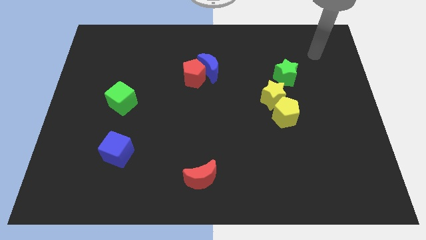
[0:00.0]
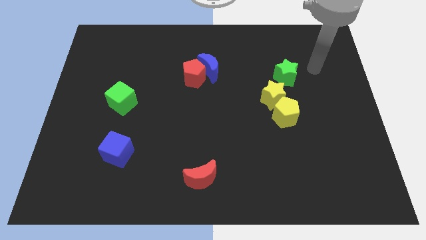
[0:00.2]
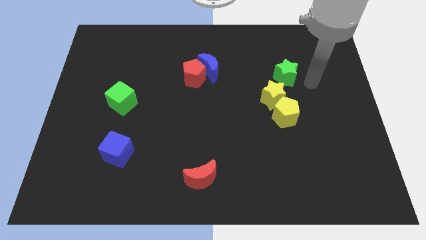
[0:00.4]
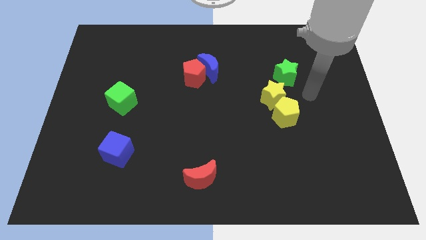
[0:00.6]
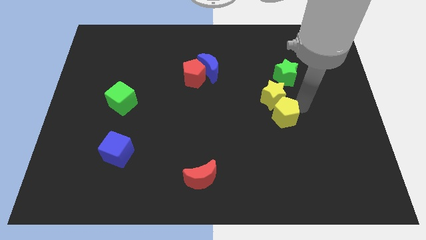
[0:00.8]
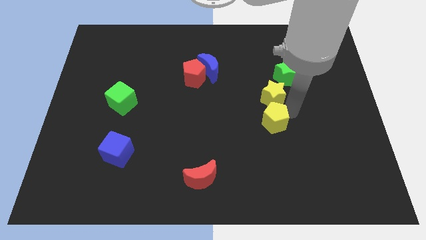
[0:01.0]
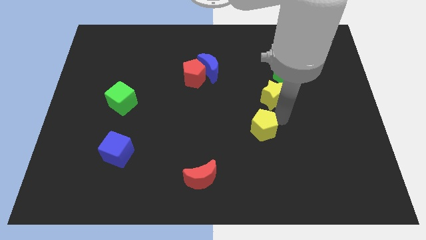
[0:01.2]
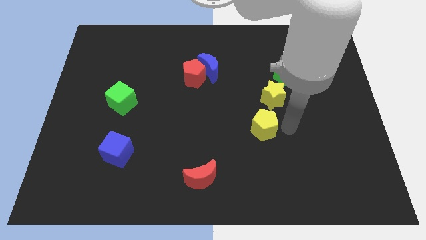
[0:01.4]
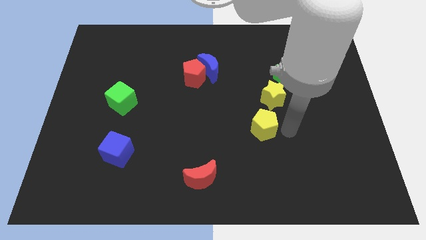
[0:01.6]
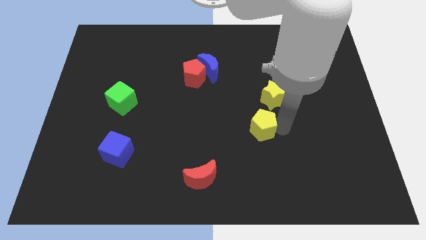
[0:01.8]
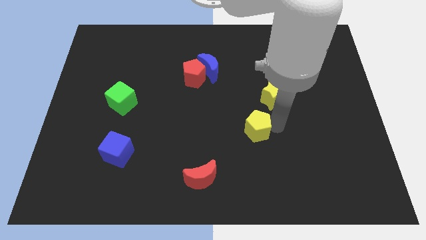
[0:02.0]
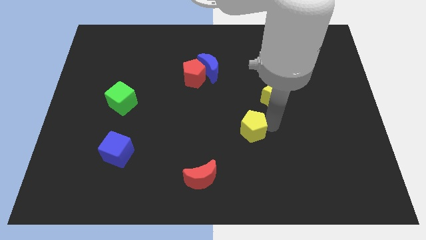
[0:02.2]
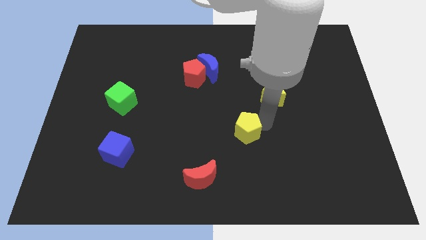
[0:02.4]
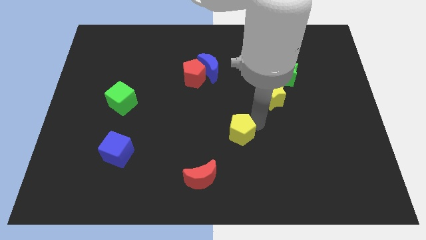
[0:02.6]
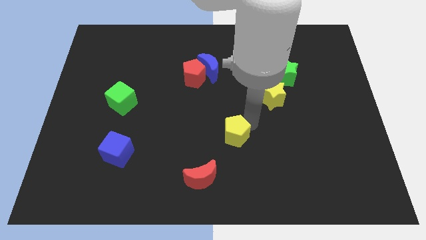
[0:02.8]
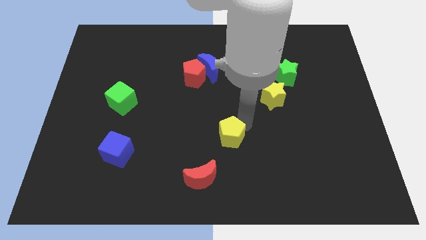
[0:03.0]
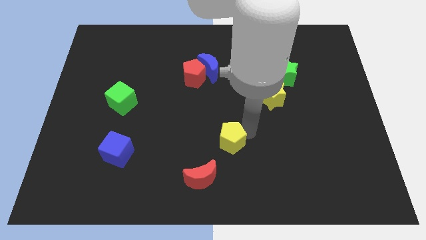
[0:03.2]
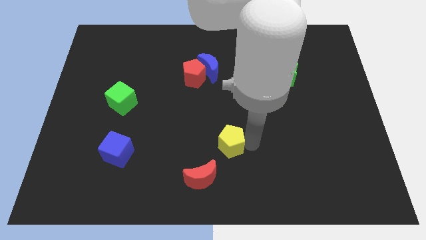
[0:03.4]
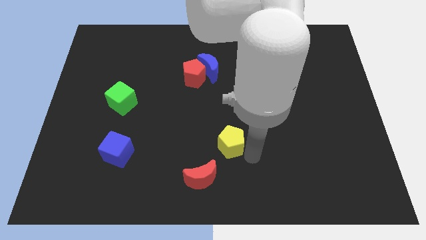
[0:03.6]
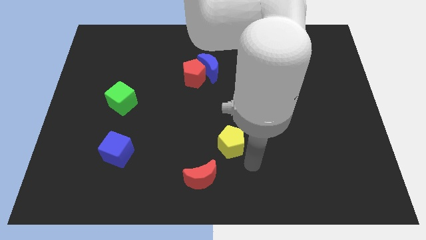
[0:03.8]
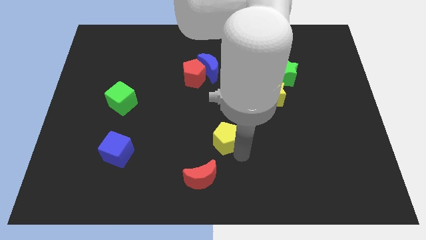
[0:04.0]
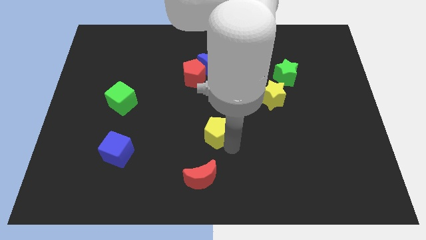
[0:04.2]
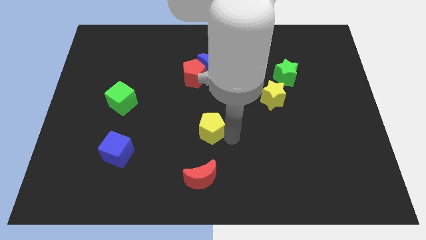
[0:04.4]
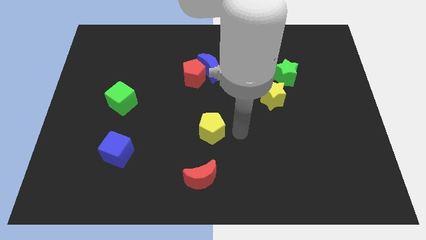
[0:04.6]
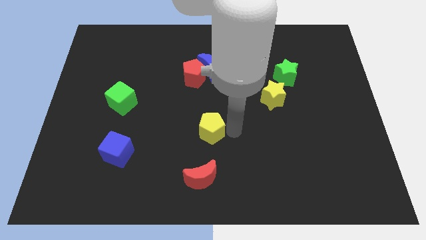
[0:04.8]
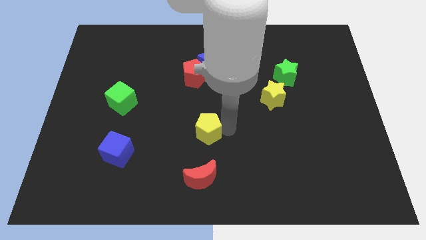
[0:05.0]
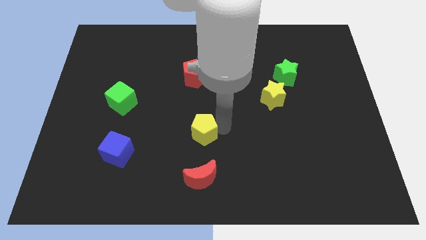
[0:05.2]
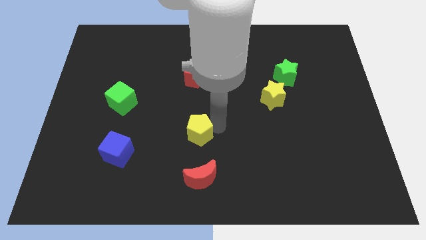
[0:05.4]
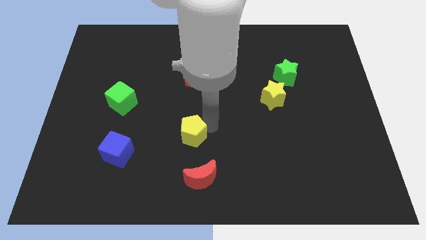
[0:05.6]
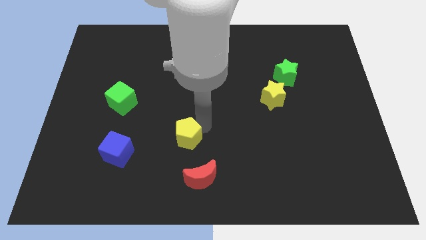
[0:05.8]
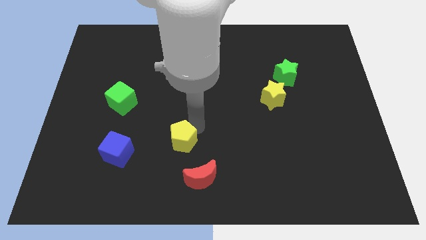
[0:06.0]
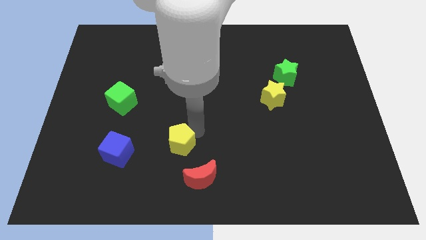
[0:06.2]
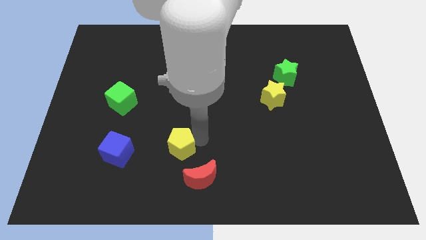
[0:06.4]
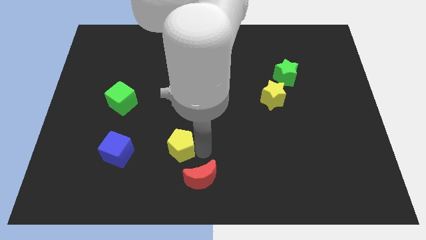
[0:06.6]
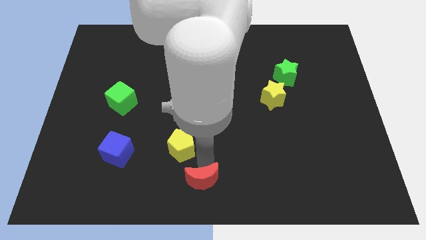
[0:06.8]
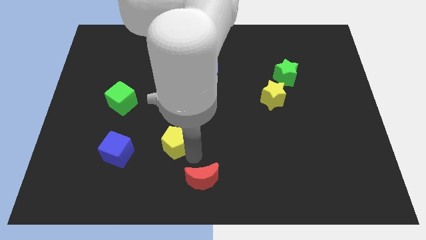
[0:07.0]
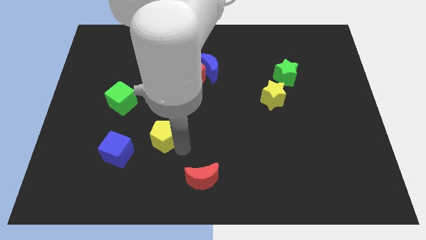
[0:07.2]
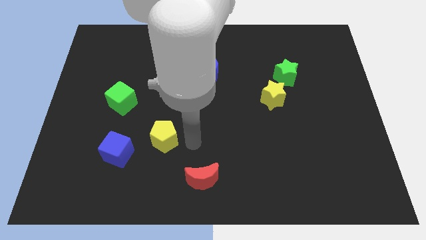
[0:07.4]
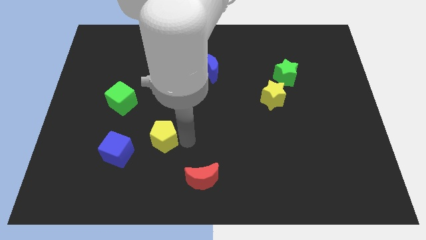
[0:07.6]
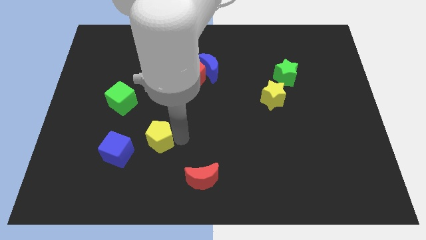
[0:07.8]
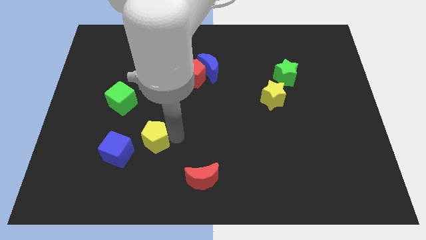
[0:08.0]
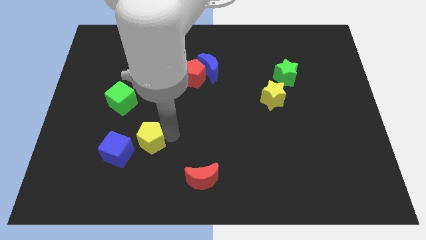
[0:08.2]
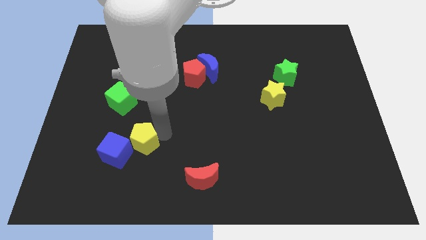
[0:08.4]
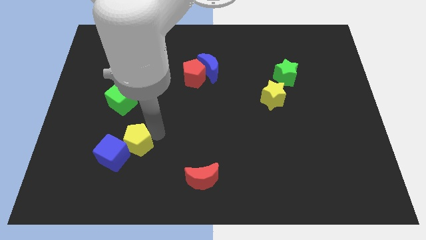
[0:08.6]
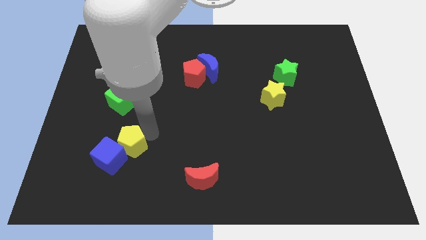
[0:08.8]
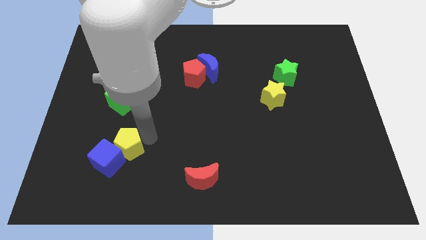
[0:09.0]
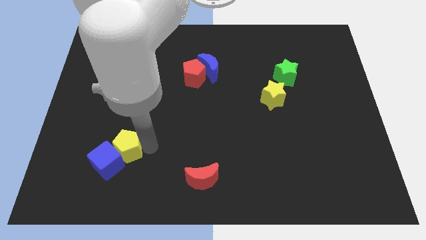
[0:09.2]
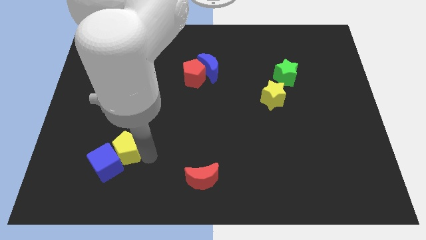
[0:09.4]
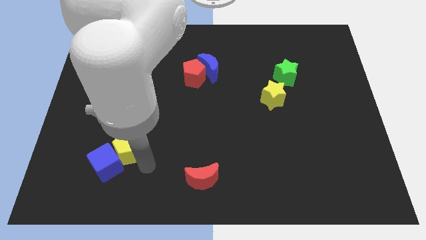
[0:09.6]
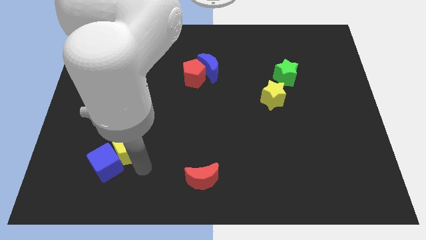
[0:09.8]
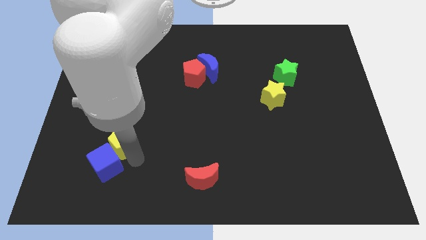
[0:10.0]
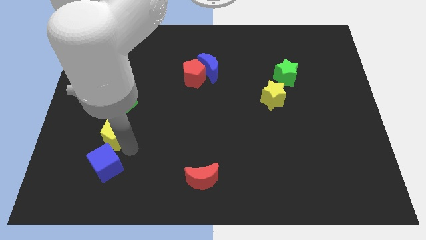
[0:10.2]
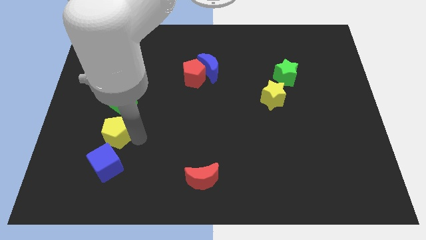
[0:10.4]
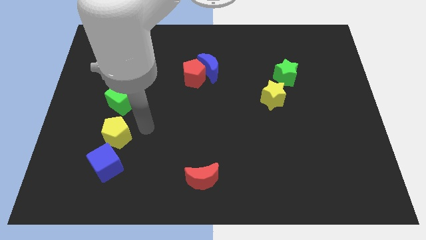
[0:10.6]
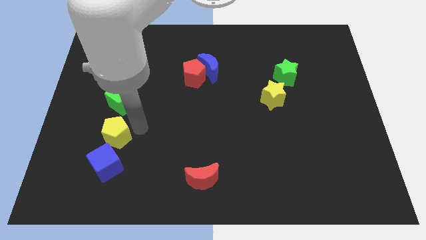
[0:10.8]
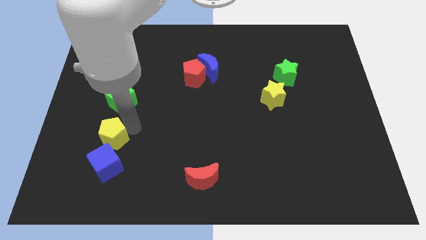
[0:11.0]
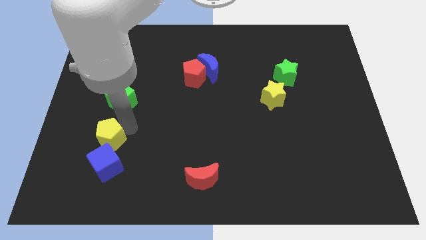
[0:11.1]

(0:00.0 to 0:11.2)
move the yellow pentagon to the top left side of the blue cube

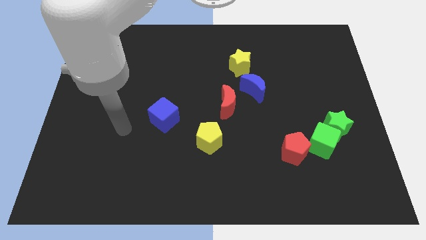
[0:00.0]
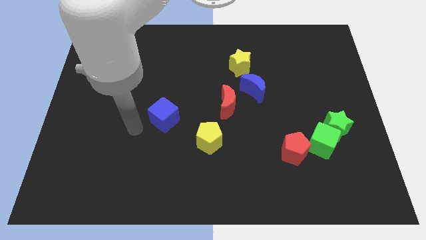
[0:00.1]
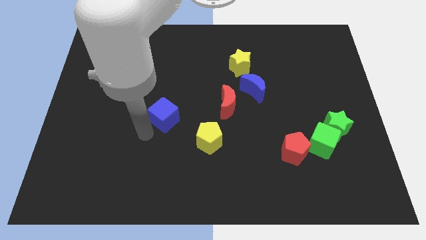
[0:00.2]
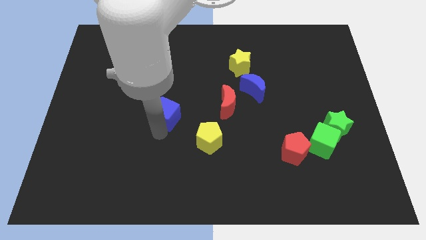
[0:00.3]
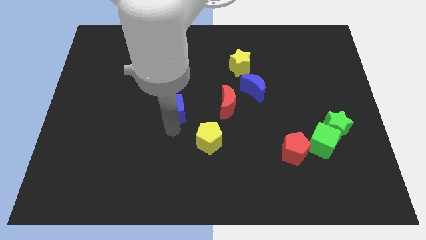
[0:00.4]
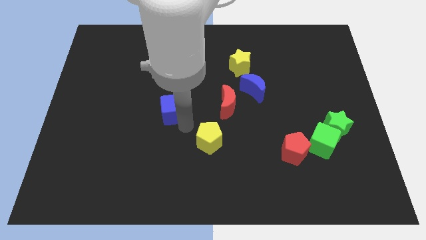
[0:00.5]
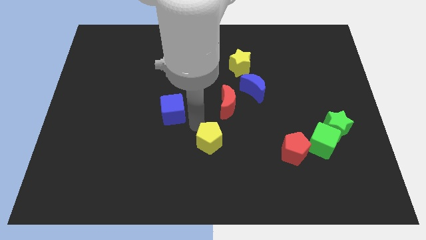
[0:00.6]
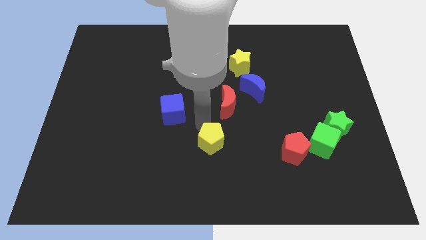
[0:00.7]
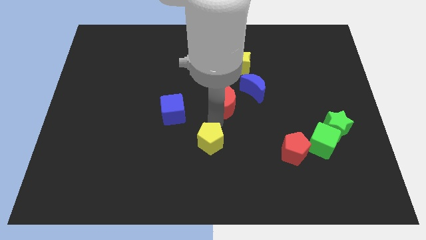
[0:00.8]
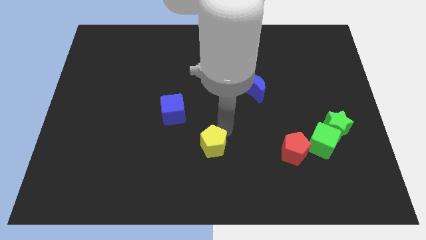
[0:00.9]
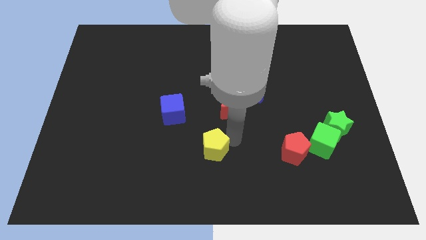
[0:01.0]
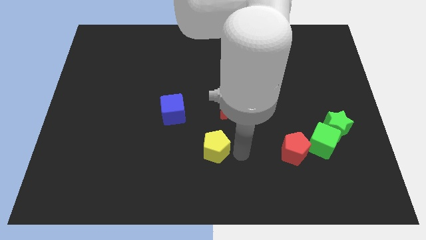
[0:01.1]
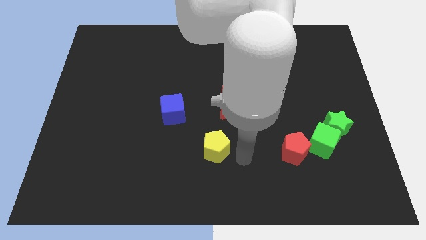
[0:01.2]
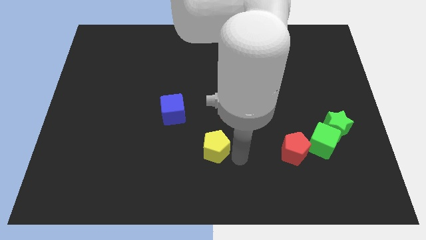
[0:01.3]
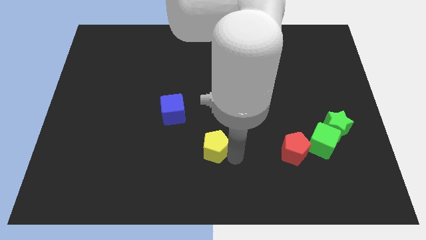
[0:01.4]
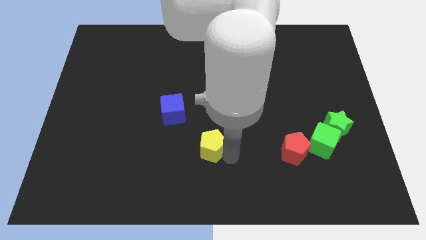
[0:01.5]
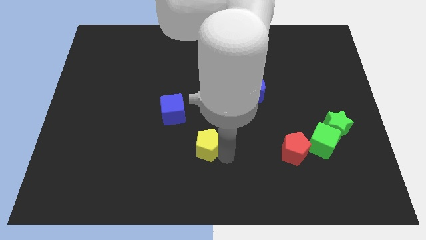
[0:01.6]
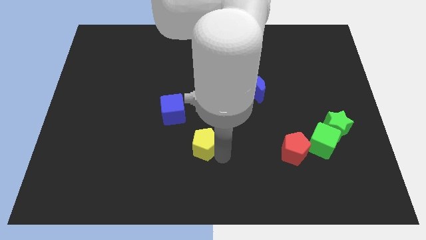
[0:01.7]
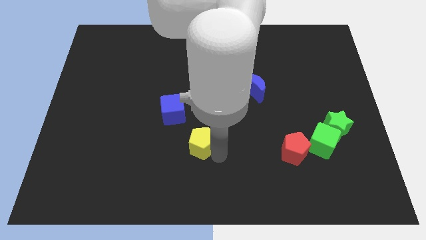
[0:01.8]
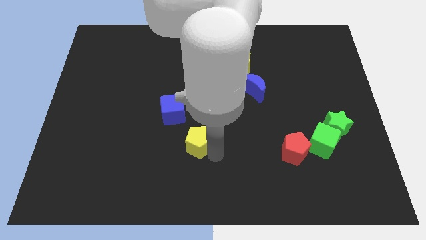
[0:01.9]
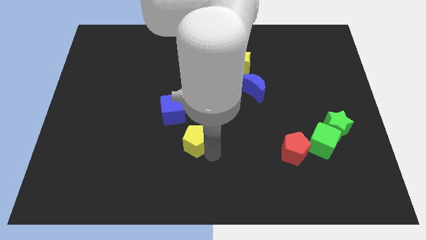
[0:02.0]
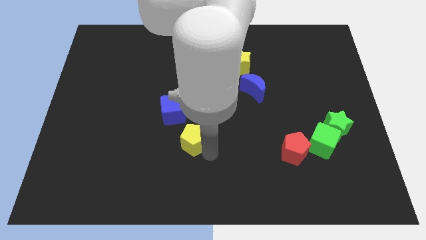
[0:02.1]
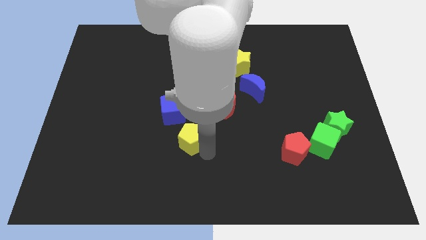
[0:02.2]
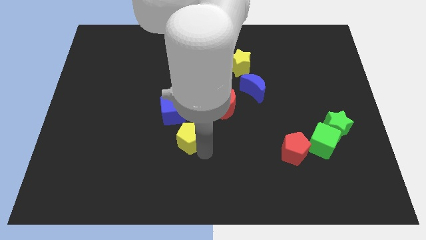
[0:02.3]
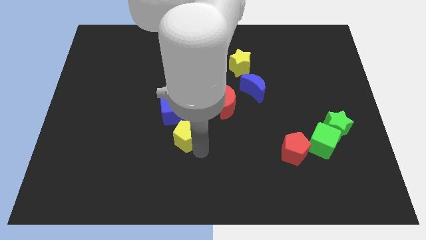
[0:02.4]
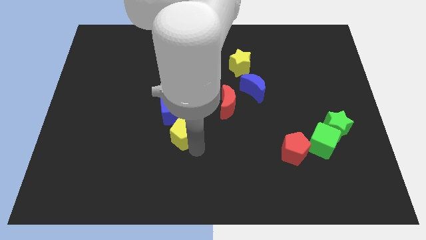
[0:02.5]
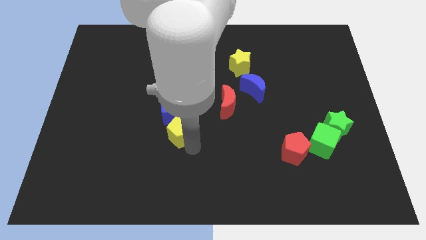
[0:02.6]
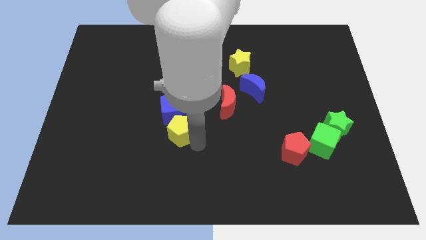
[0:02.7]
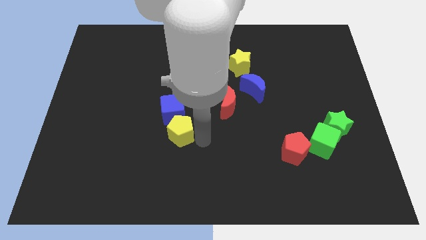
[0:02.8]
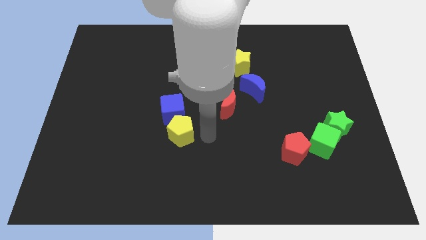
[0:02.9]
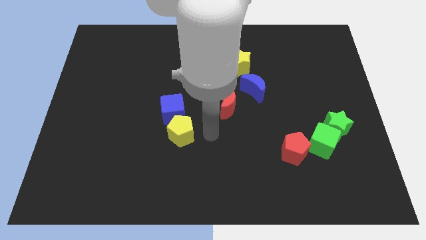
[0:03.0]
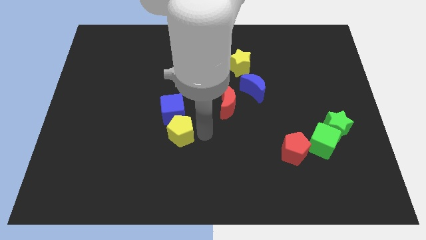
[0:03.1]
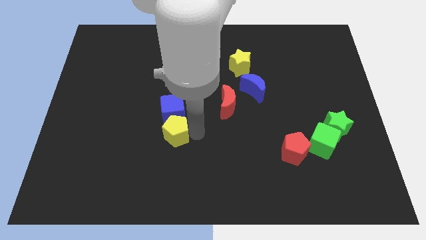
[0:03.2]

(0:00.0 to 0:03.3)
put the yellow pentagon to the bottom left side of the blue cube
